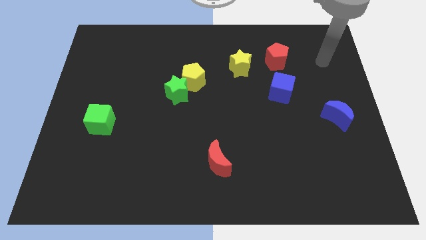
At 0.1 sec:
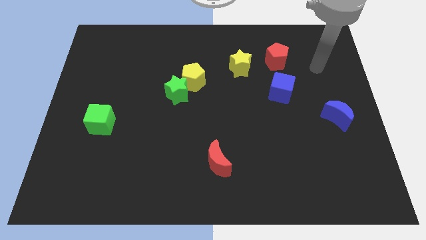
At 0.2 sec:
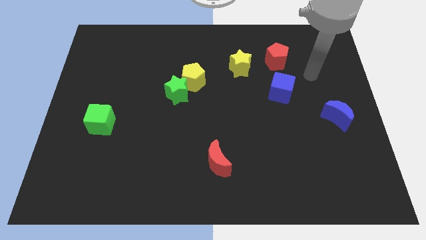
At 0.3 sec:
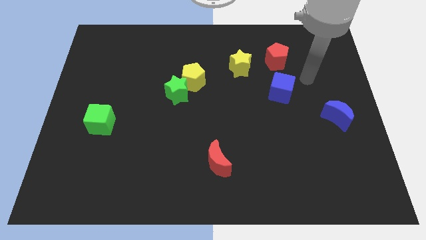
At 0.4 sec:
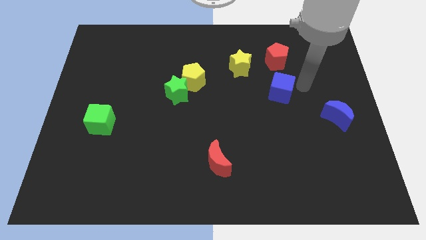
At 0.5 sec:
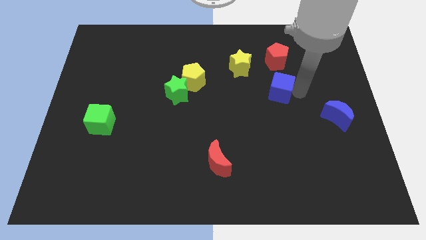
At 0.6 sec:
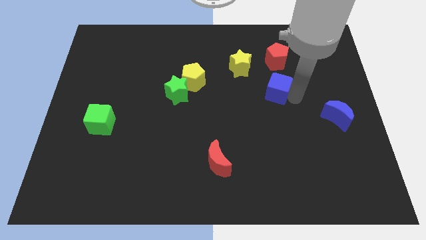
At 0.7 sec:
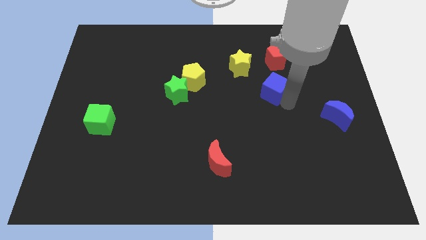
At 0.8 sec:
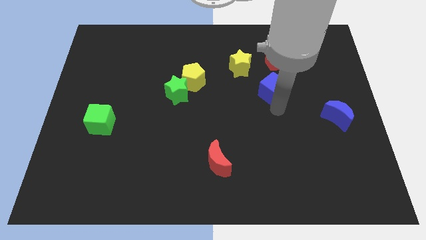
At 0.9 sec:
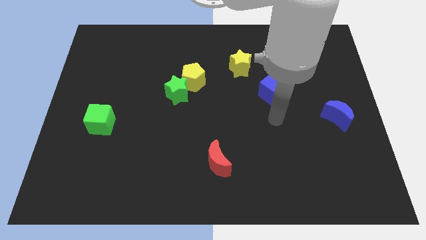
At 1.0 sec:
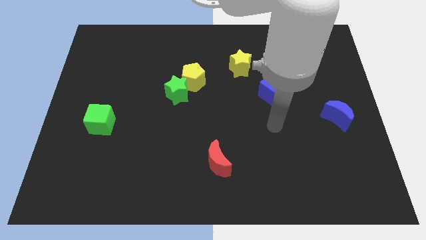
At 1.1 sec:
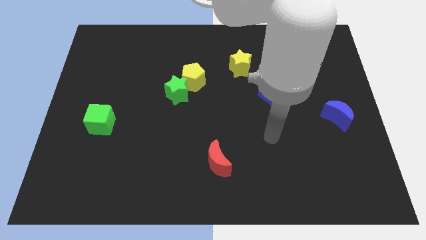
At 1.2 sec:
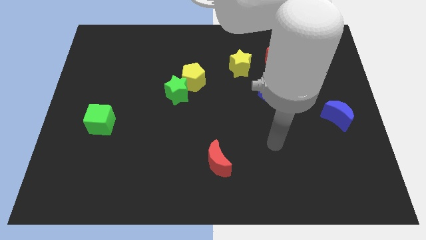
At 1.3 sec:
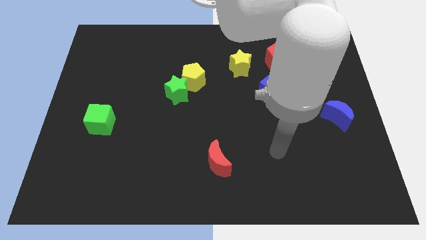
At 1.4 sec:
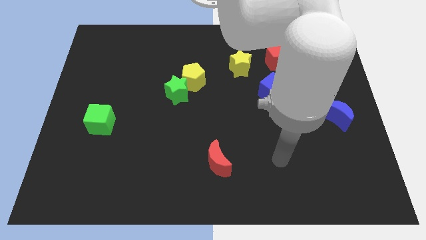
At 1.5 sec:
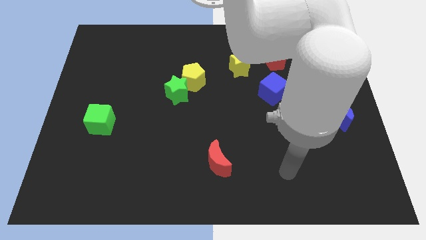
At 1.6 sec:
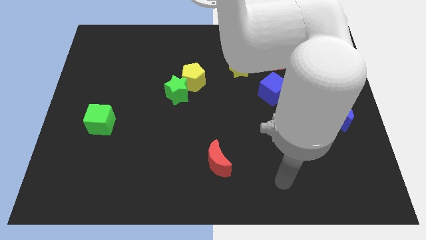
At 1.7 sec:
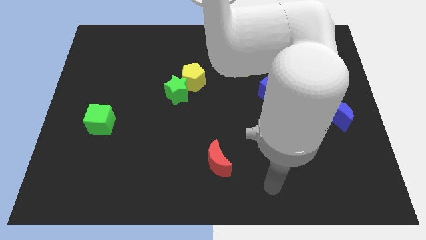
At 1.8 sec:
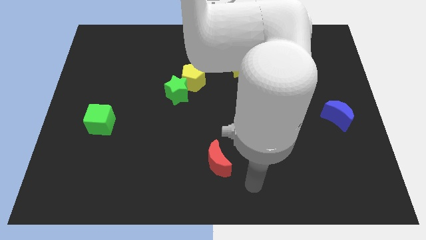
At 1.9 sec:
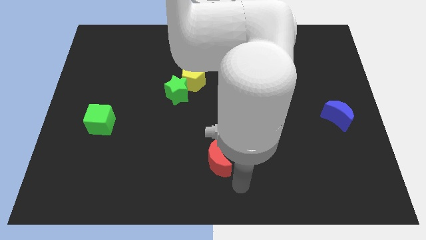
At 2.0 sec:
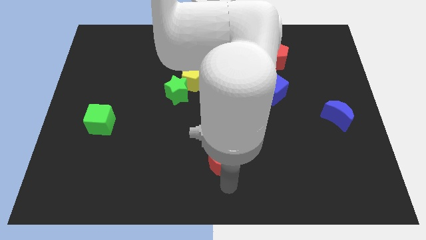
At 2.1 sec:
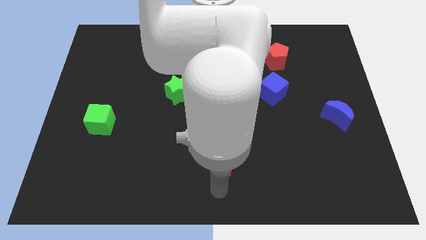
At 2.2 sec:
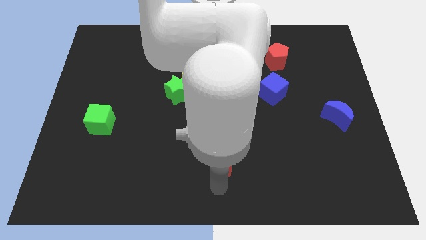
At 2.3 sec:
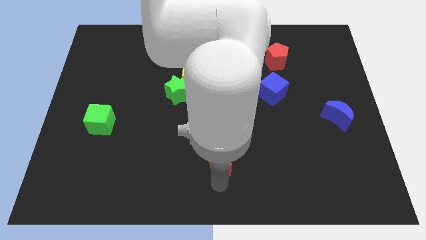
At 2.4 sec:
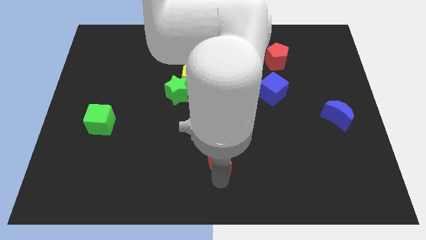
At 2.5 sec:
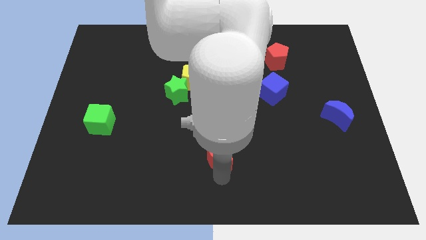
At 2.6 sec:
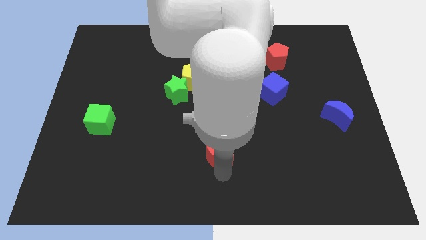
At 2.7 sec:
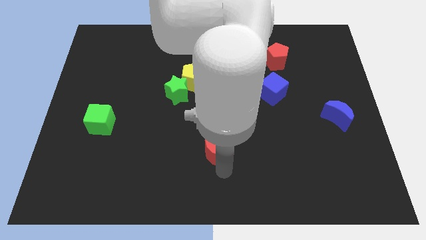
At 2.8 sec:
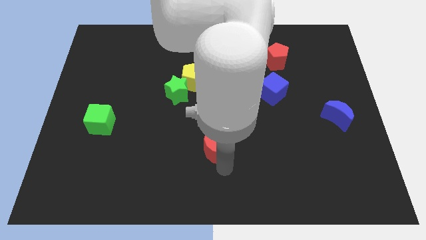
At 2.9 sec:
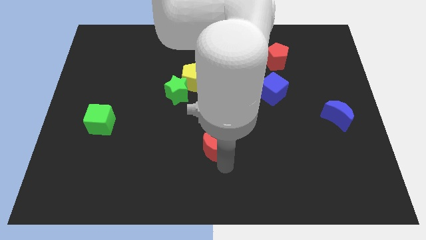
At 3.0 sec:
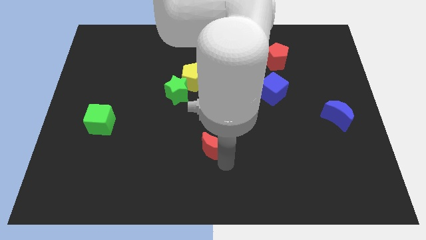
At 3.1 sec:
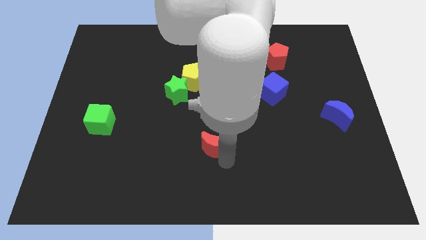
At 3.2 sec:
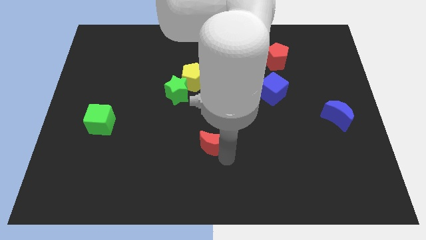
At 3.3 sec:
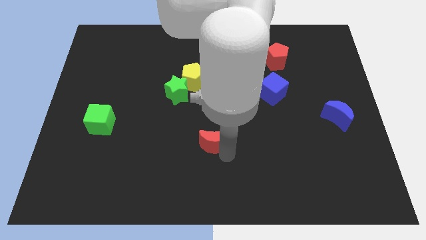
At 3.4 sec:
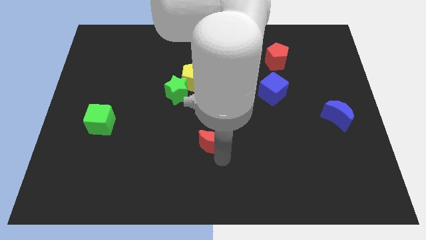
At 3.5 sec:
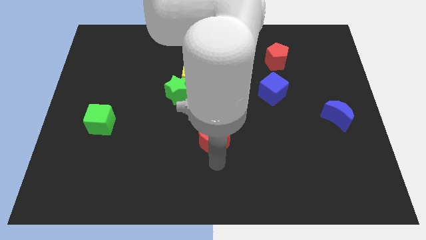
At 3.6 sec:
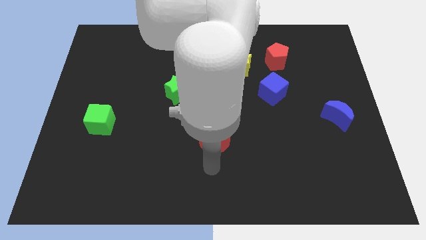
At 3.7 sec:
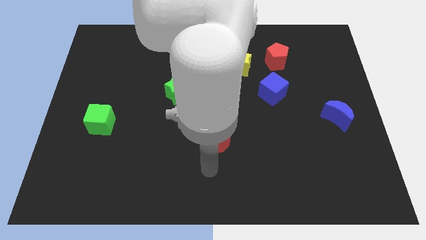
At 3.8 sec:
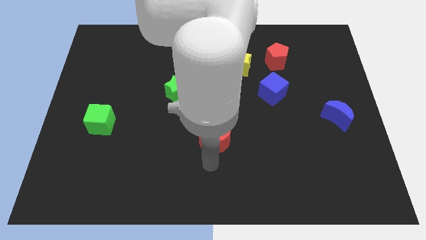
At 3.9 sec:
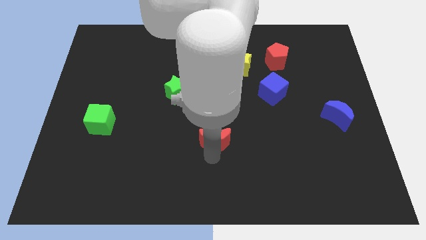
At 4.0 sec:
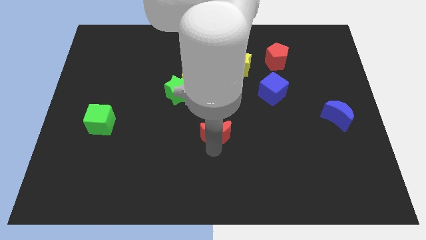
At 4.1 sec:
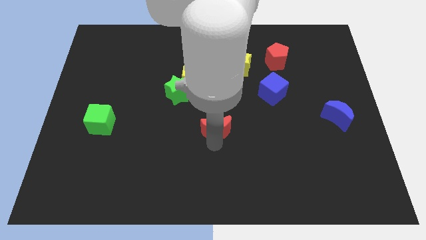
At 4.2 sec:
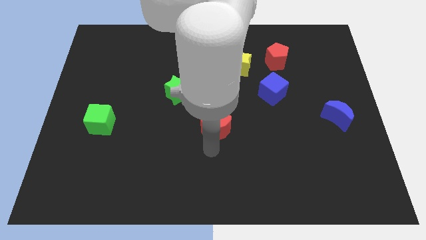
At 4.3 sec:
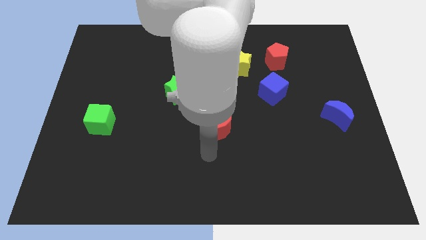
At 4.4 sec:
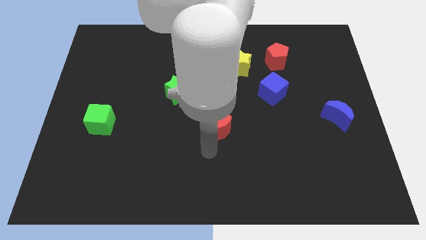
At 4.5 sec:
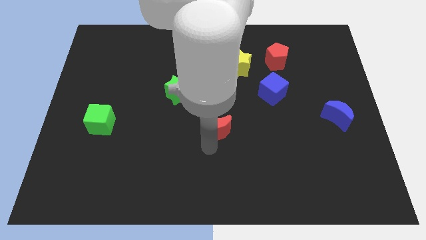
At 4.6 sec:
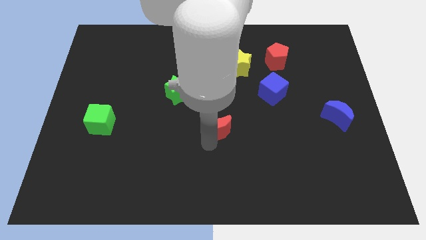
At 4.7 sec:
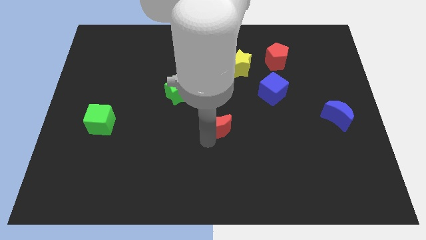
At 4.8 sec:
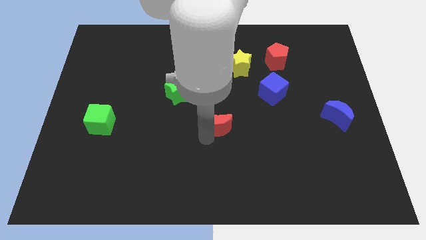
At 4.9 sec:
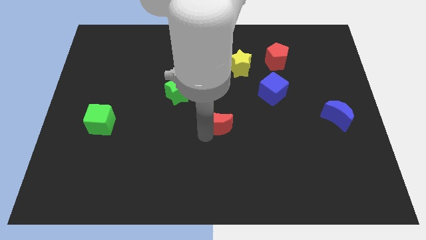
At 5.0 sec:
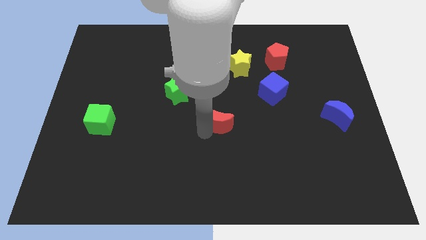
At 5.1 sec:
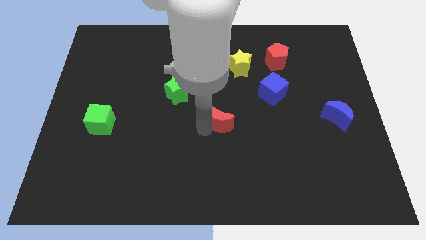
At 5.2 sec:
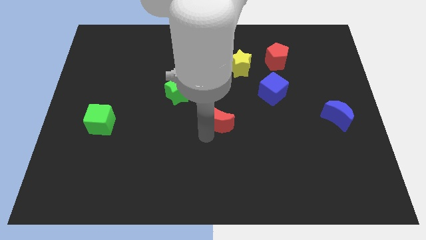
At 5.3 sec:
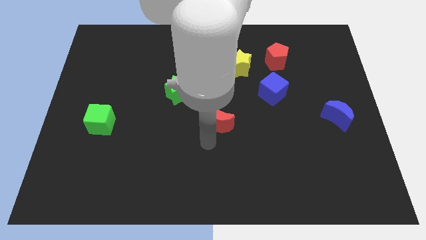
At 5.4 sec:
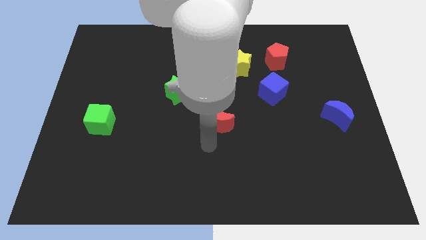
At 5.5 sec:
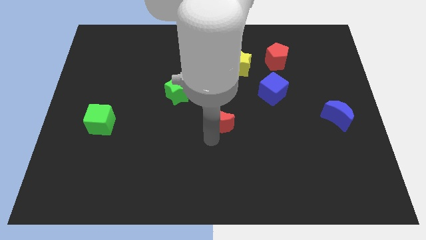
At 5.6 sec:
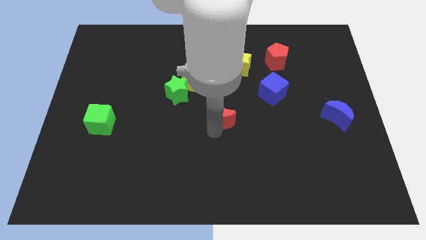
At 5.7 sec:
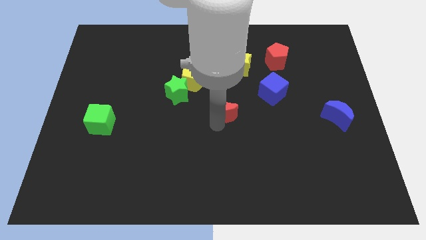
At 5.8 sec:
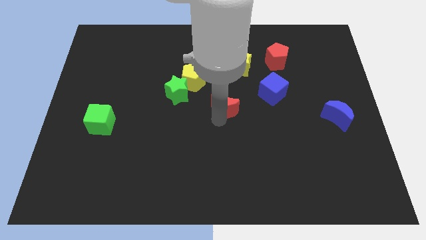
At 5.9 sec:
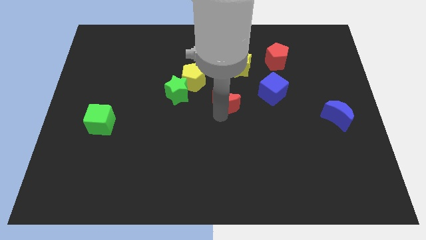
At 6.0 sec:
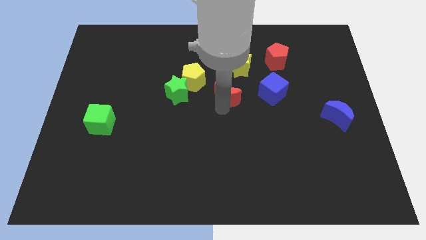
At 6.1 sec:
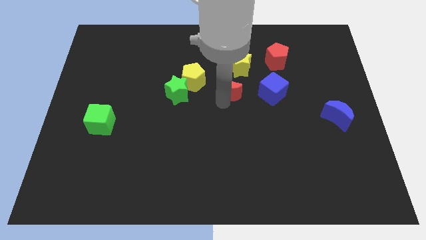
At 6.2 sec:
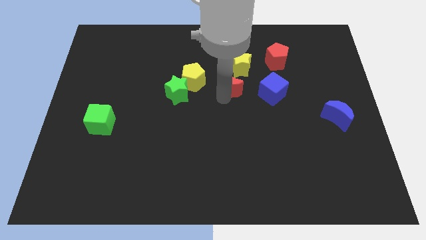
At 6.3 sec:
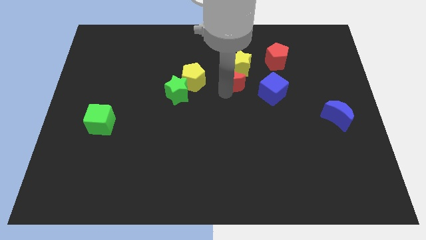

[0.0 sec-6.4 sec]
put the red moon close to the yellow star

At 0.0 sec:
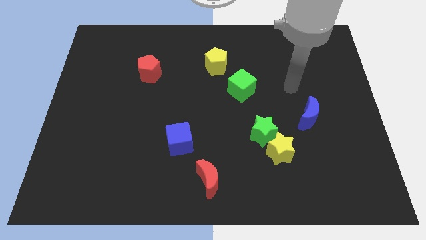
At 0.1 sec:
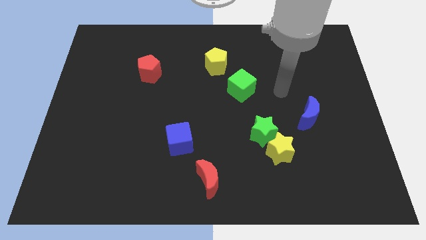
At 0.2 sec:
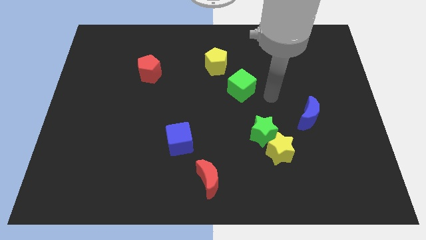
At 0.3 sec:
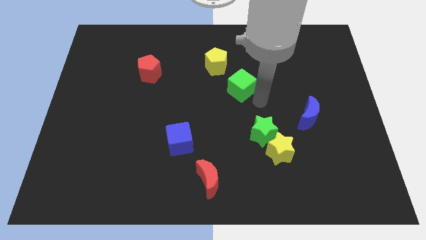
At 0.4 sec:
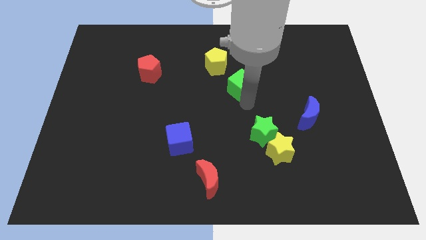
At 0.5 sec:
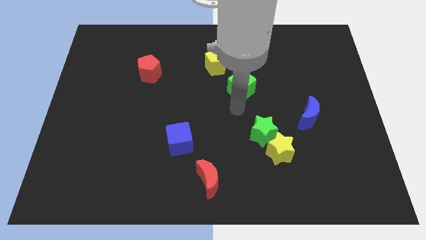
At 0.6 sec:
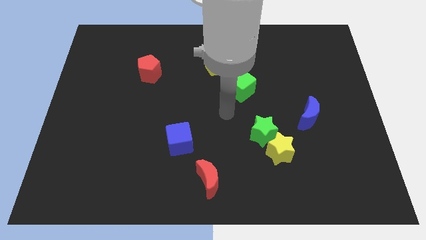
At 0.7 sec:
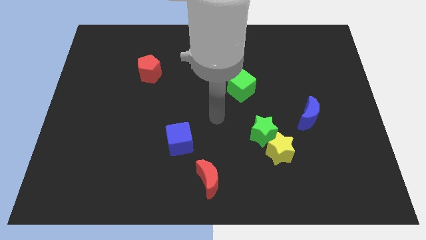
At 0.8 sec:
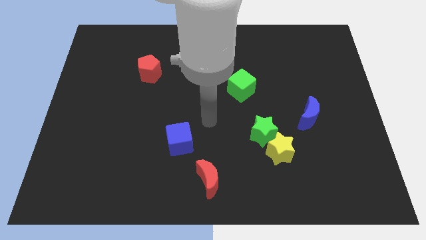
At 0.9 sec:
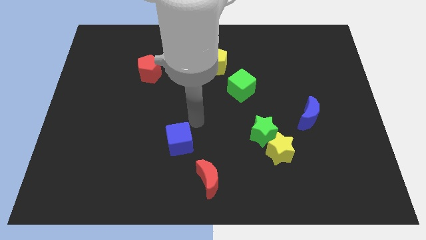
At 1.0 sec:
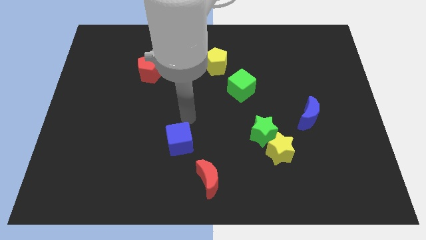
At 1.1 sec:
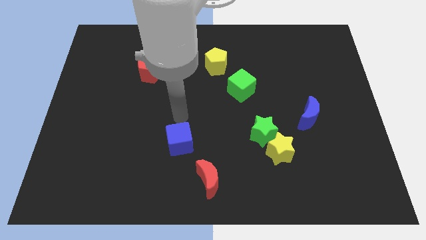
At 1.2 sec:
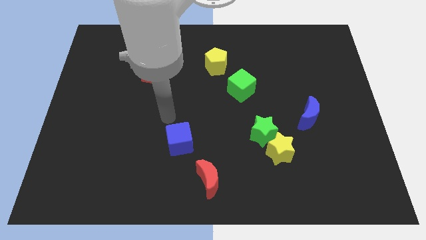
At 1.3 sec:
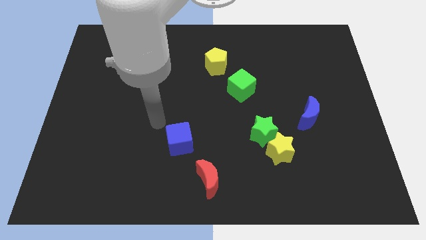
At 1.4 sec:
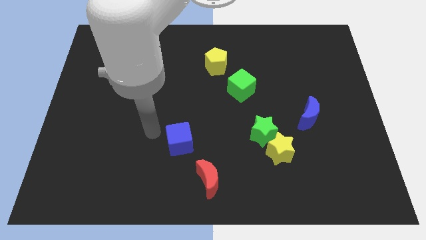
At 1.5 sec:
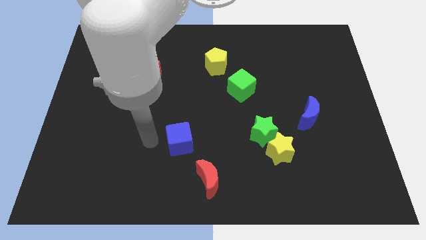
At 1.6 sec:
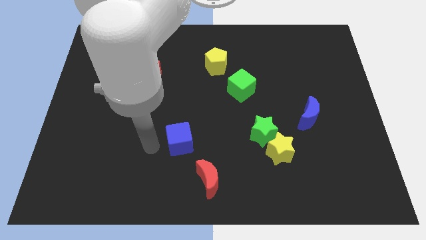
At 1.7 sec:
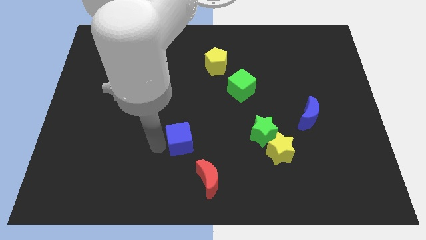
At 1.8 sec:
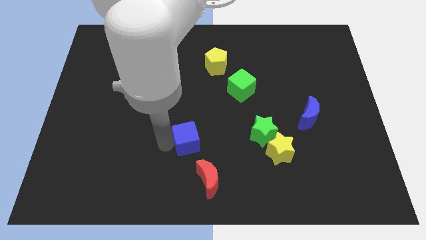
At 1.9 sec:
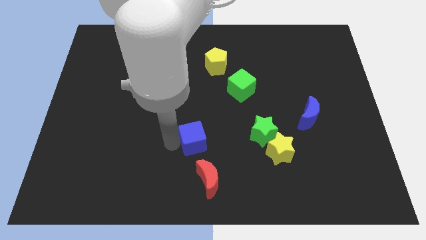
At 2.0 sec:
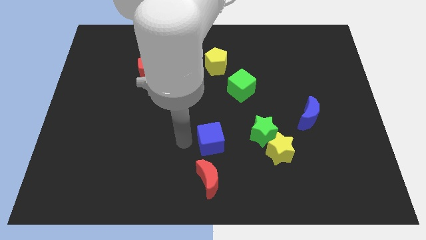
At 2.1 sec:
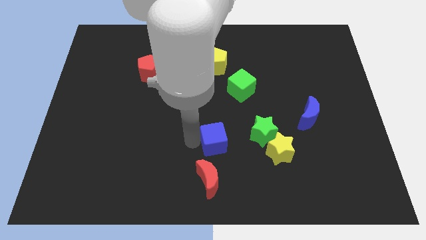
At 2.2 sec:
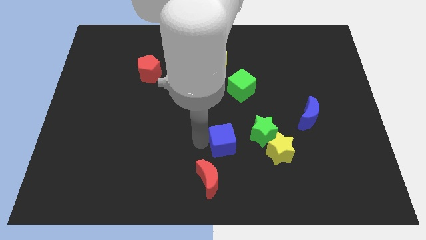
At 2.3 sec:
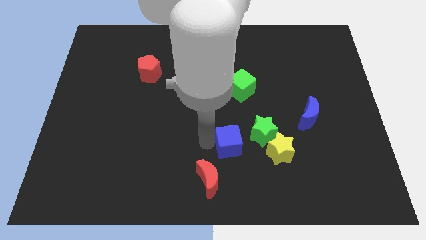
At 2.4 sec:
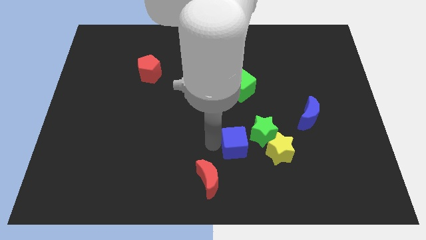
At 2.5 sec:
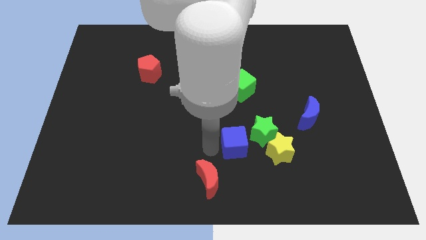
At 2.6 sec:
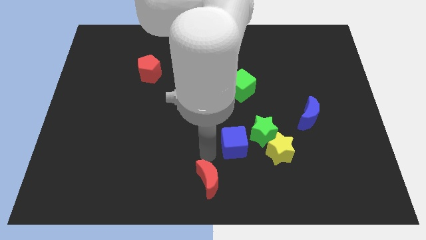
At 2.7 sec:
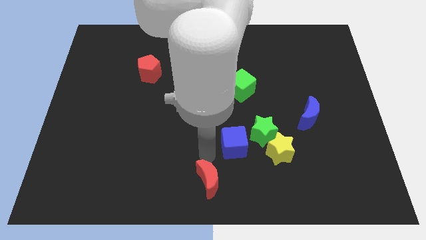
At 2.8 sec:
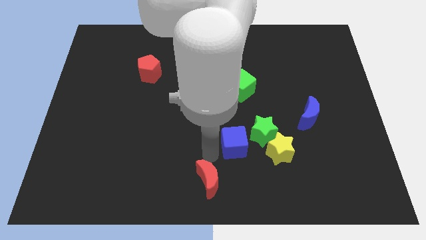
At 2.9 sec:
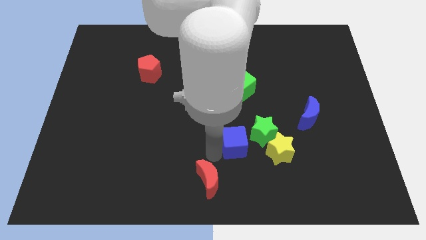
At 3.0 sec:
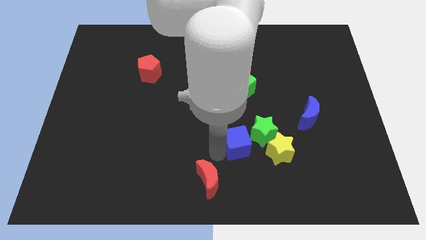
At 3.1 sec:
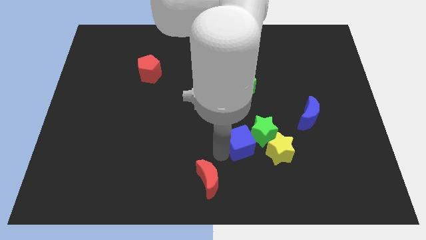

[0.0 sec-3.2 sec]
slide the blue cube next to the green star
